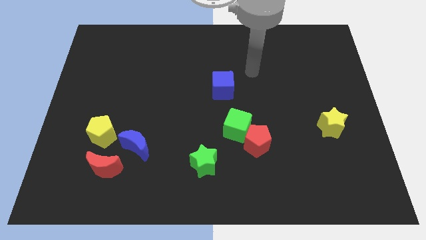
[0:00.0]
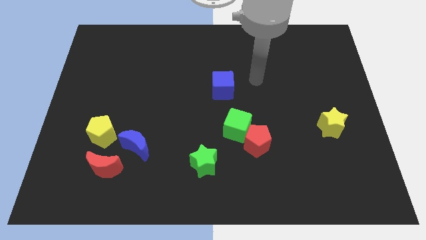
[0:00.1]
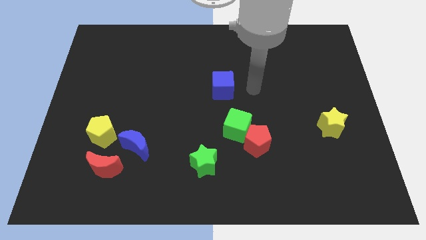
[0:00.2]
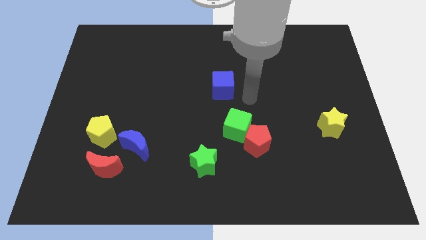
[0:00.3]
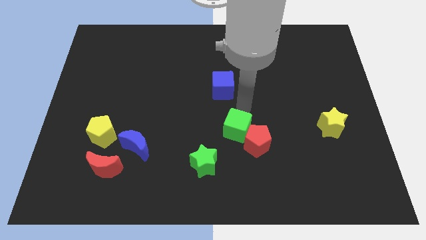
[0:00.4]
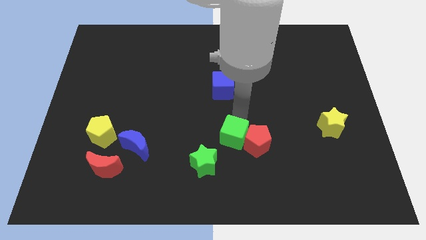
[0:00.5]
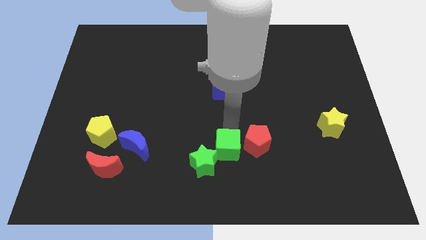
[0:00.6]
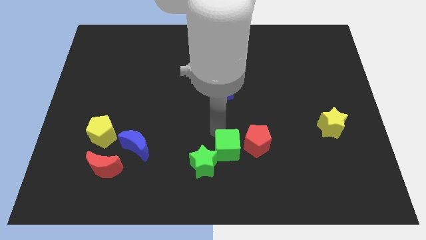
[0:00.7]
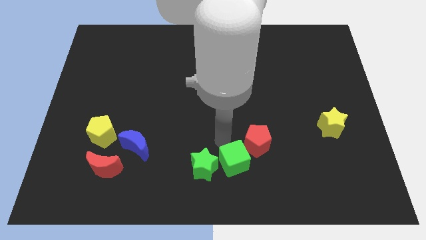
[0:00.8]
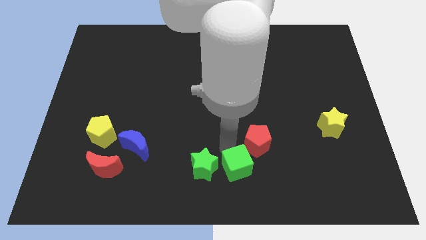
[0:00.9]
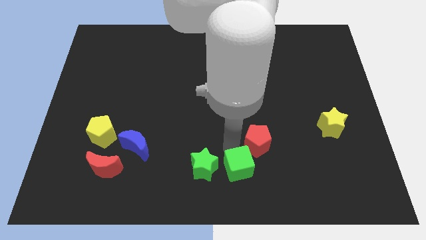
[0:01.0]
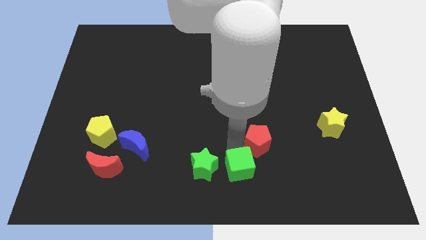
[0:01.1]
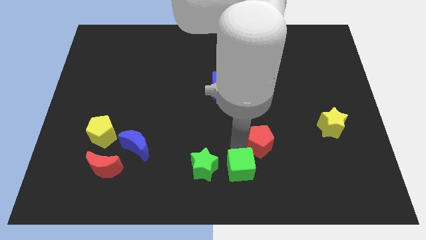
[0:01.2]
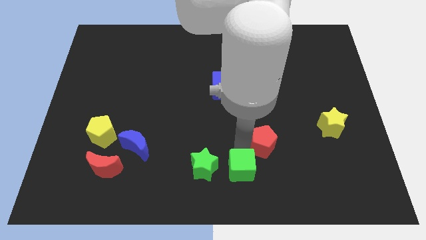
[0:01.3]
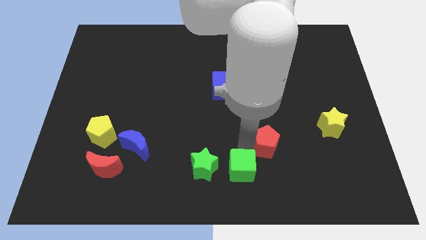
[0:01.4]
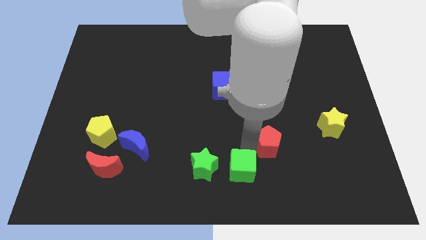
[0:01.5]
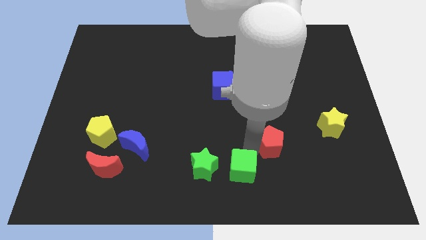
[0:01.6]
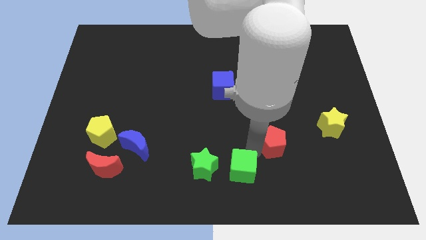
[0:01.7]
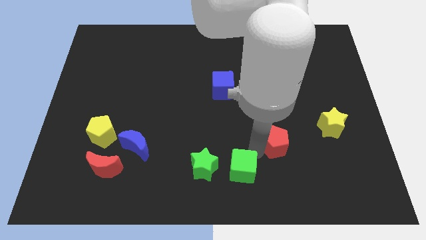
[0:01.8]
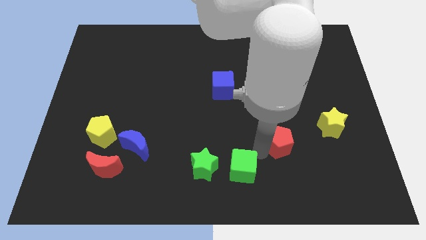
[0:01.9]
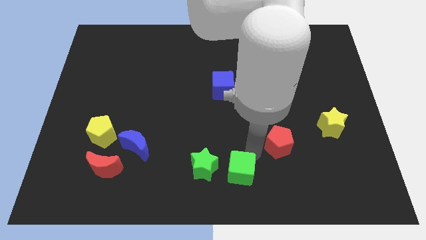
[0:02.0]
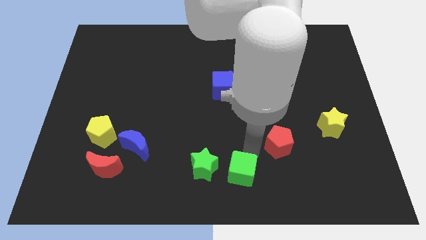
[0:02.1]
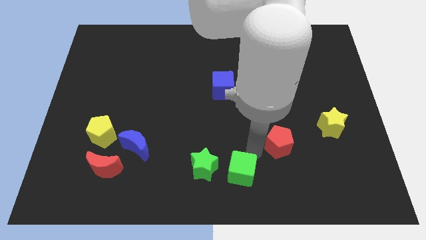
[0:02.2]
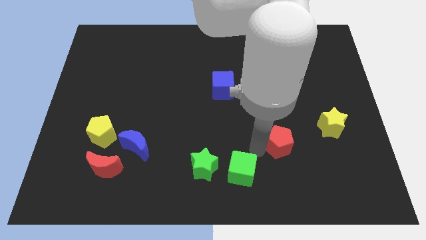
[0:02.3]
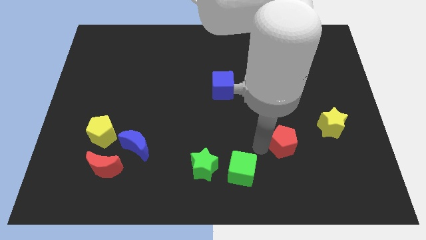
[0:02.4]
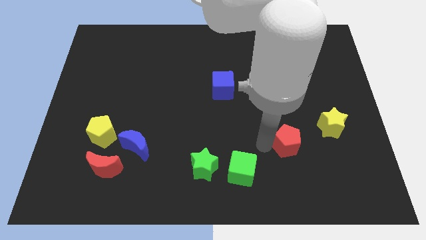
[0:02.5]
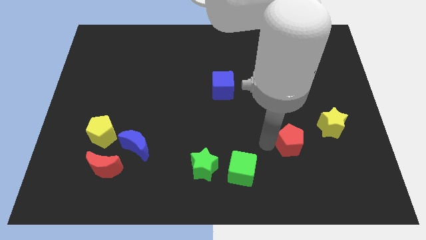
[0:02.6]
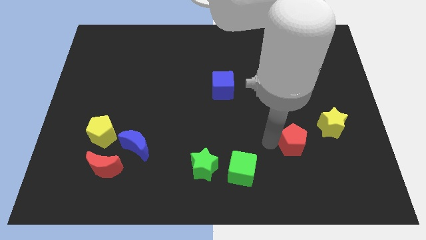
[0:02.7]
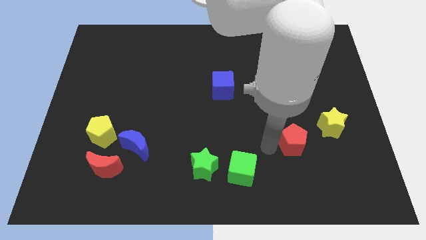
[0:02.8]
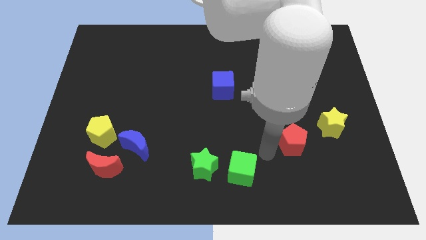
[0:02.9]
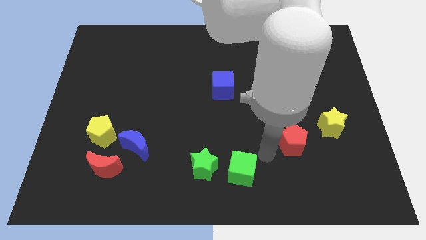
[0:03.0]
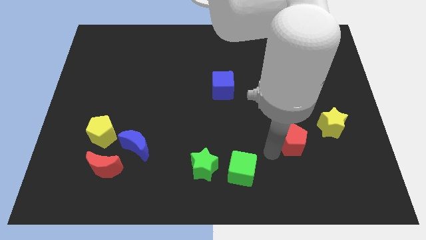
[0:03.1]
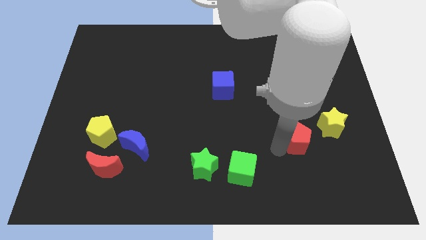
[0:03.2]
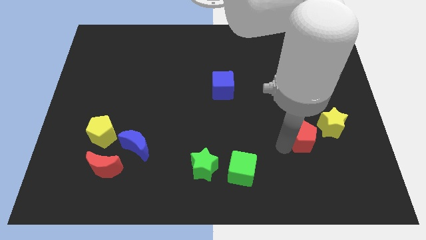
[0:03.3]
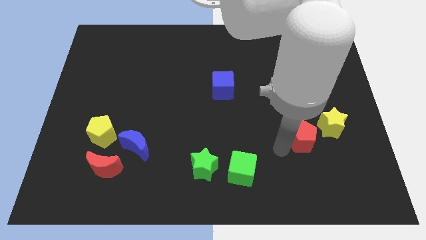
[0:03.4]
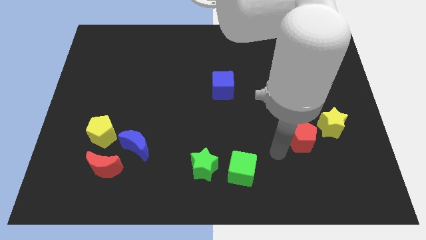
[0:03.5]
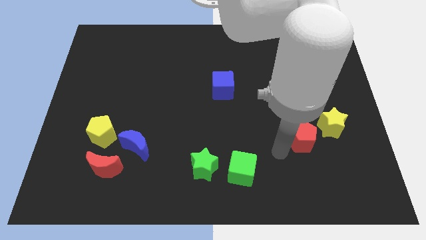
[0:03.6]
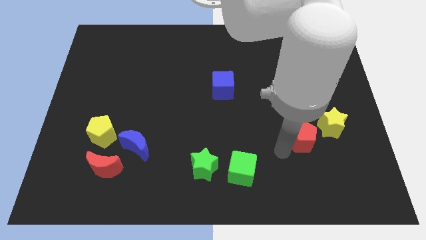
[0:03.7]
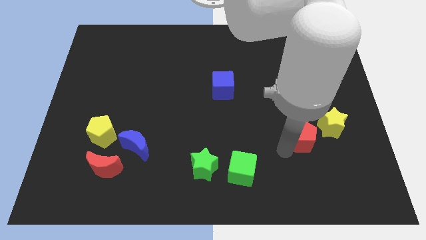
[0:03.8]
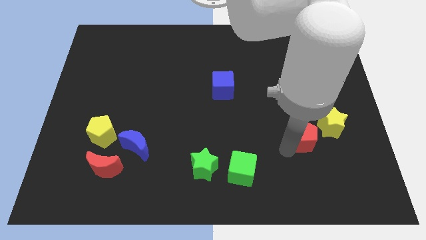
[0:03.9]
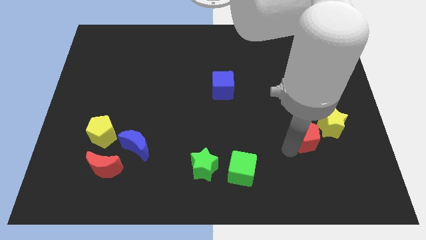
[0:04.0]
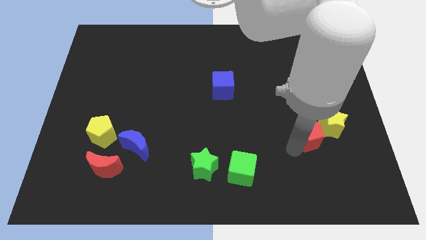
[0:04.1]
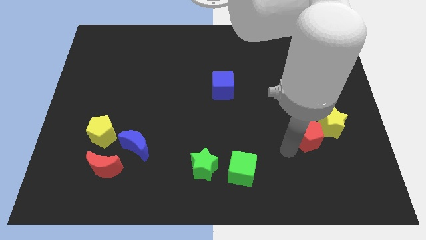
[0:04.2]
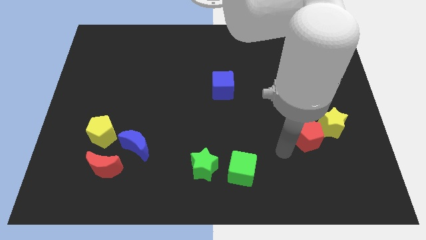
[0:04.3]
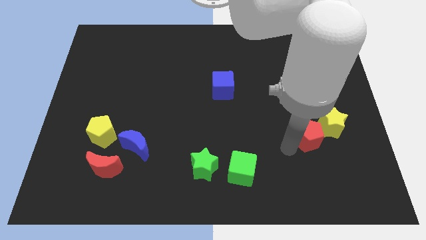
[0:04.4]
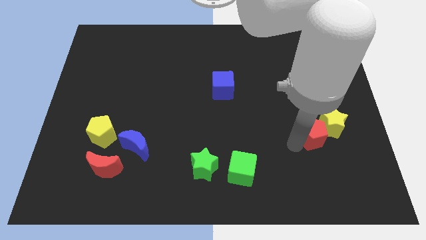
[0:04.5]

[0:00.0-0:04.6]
push the red pentagon close to the yellow star

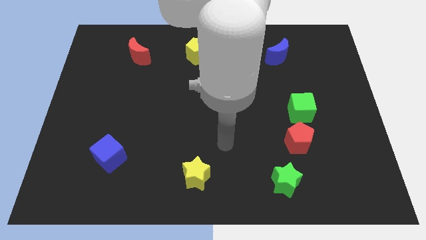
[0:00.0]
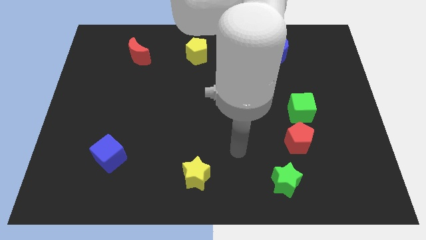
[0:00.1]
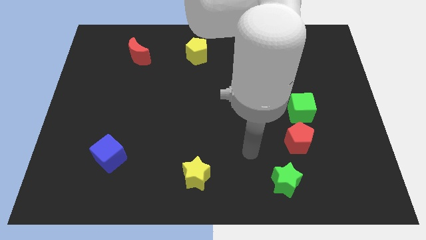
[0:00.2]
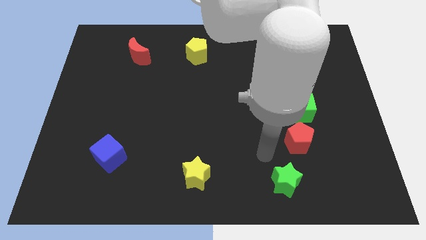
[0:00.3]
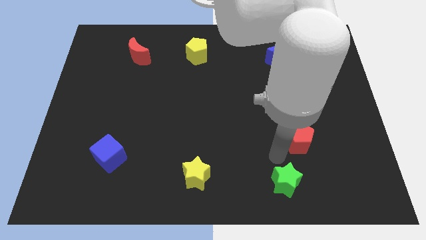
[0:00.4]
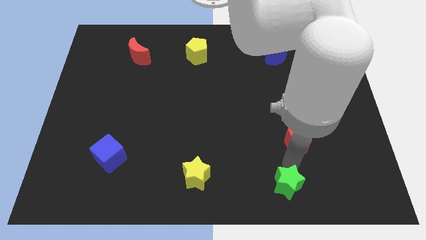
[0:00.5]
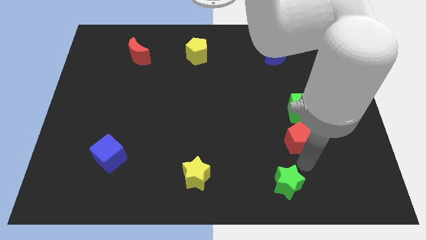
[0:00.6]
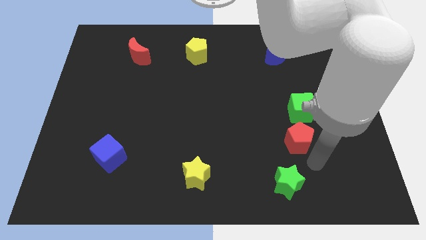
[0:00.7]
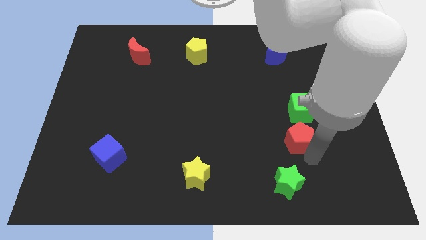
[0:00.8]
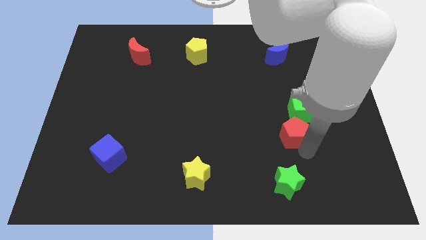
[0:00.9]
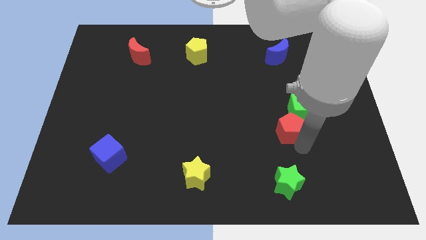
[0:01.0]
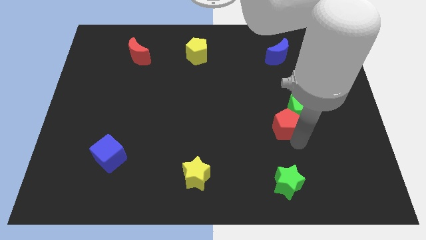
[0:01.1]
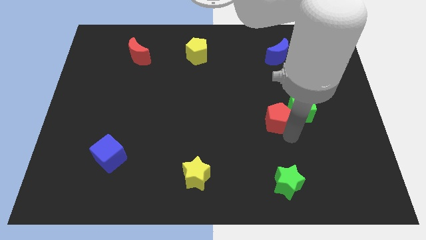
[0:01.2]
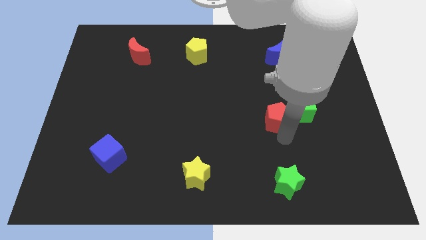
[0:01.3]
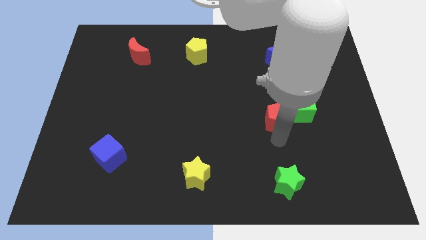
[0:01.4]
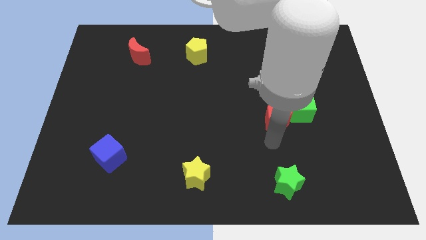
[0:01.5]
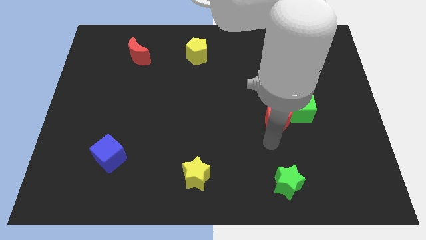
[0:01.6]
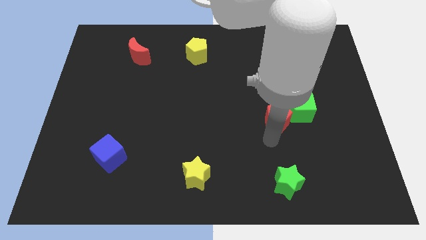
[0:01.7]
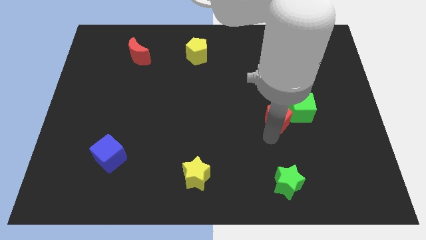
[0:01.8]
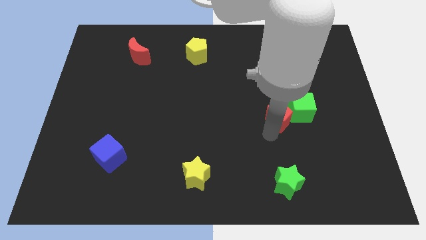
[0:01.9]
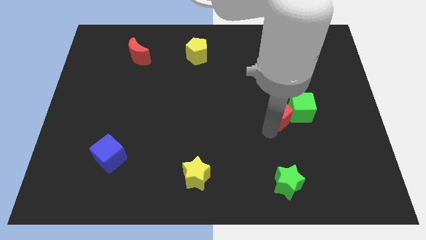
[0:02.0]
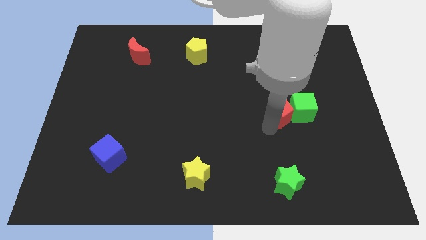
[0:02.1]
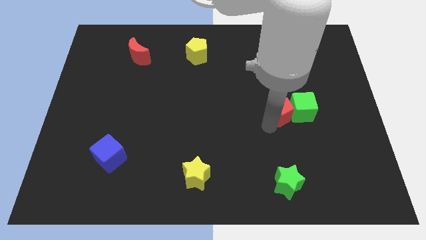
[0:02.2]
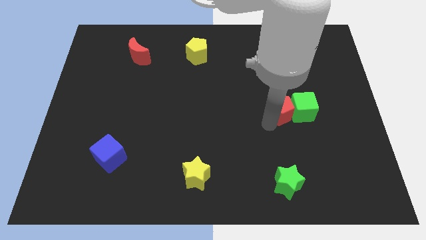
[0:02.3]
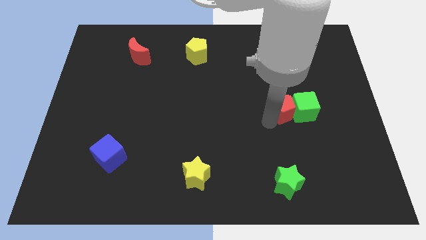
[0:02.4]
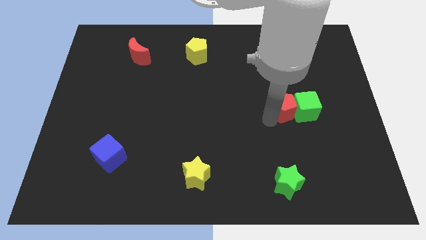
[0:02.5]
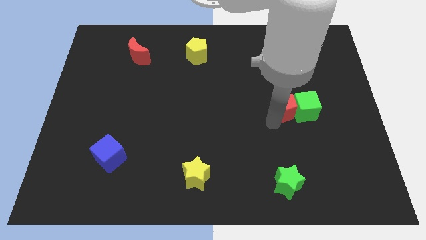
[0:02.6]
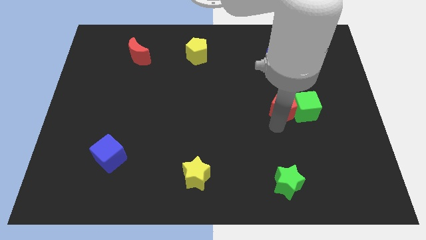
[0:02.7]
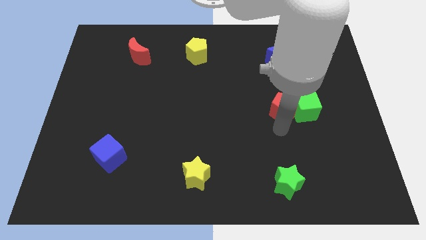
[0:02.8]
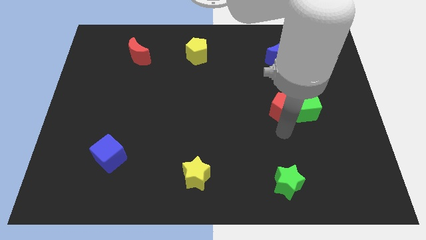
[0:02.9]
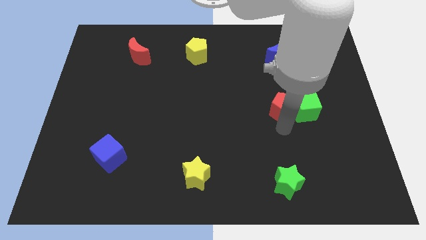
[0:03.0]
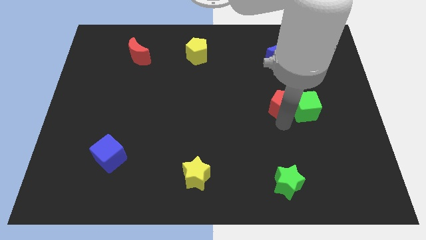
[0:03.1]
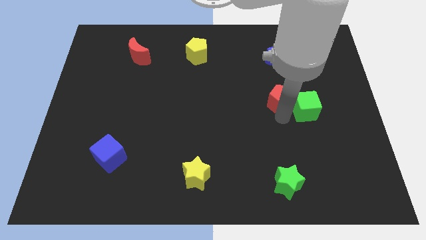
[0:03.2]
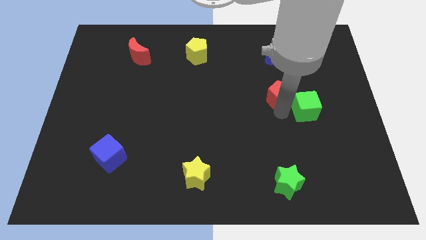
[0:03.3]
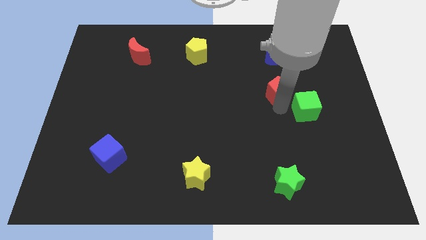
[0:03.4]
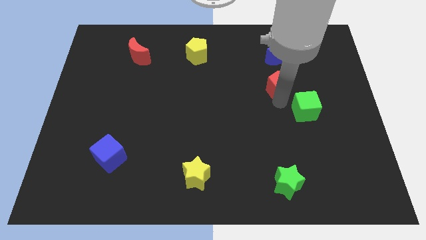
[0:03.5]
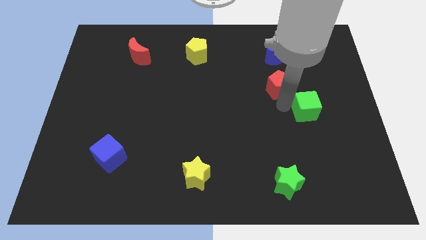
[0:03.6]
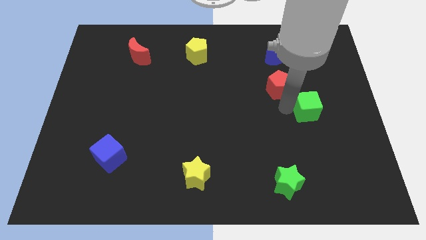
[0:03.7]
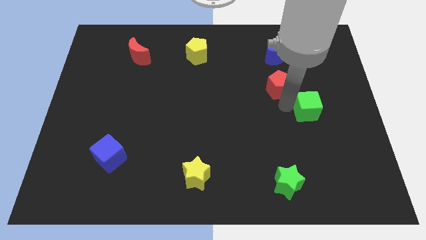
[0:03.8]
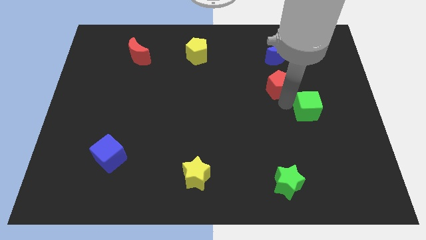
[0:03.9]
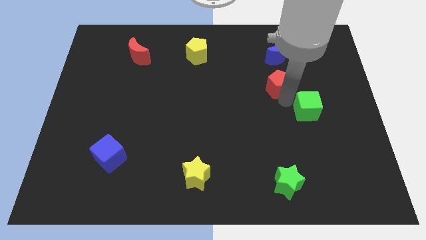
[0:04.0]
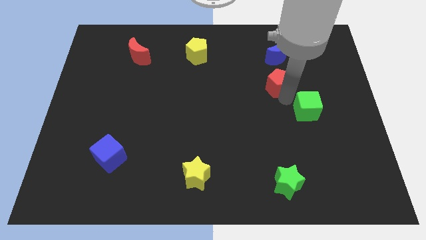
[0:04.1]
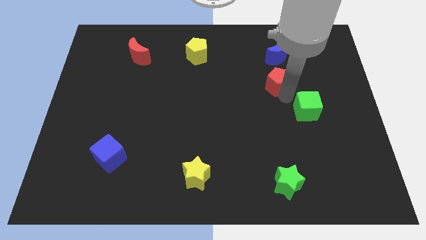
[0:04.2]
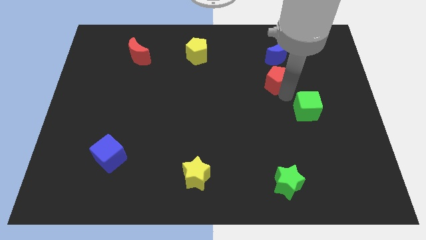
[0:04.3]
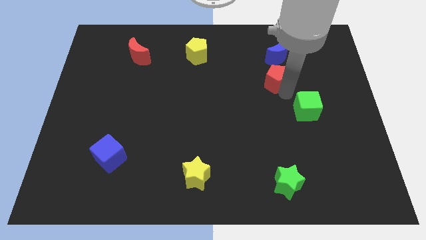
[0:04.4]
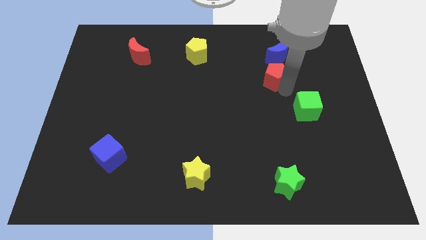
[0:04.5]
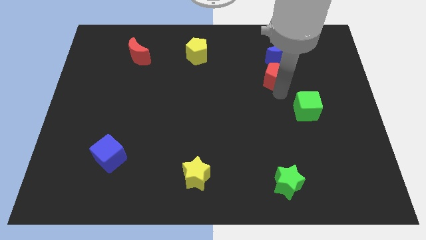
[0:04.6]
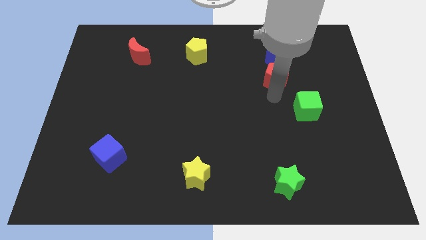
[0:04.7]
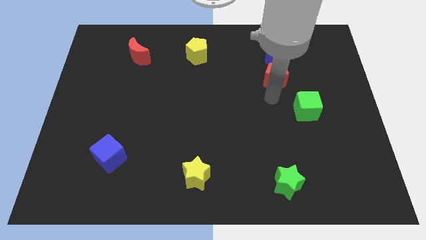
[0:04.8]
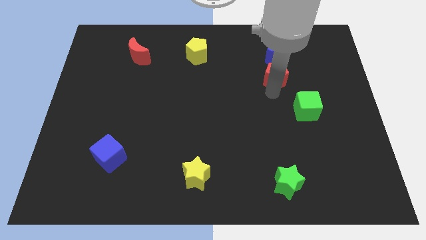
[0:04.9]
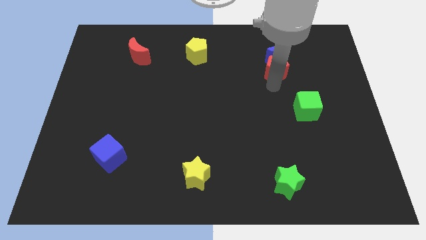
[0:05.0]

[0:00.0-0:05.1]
move the red pentagon close to the blue moon
